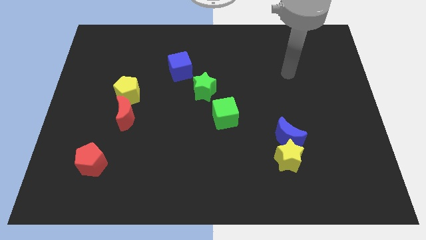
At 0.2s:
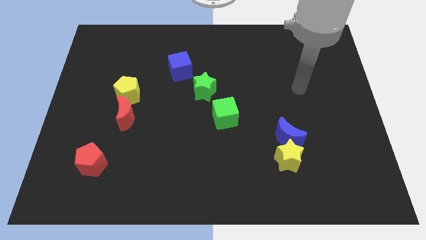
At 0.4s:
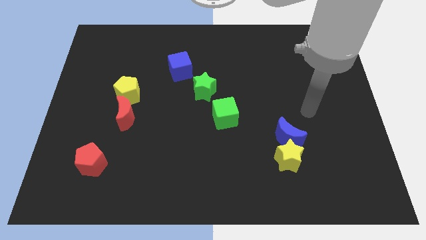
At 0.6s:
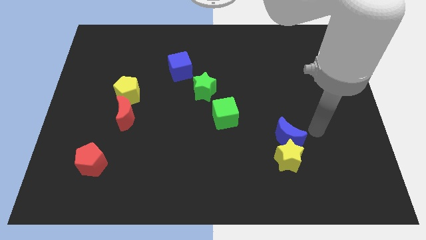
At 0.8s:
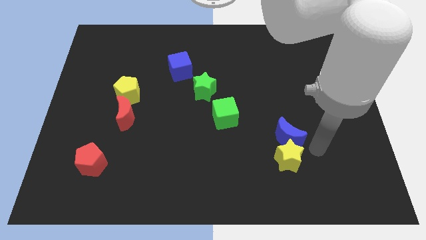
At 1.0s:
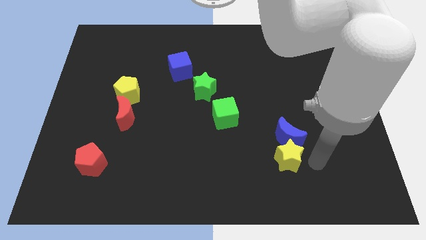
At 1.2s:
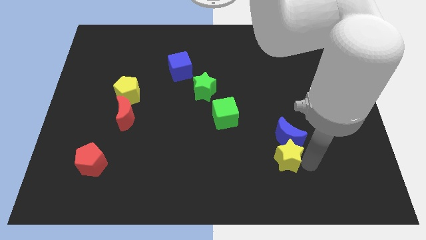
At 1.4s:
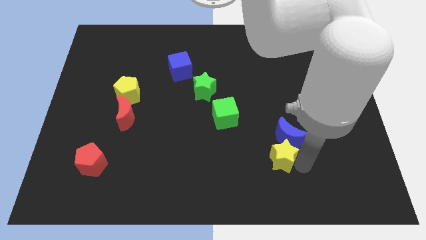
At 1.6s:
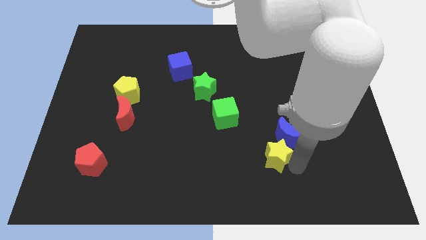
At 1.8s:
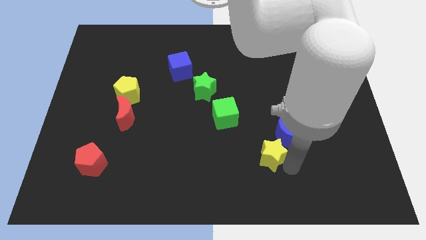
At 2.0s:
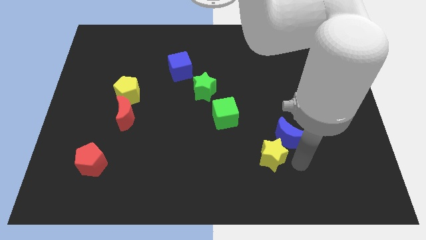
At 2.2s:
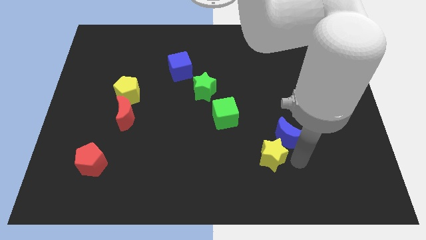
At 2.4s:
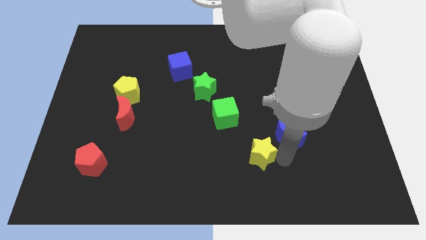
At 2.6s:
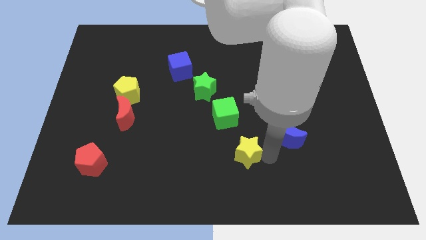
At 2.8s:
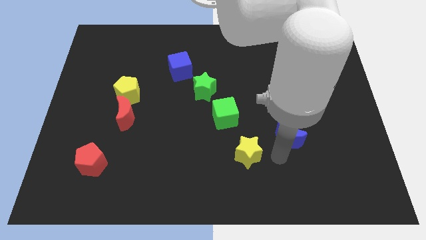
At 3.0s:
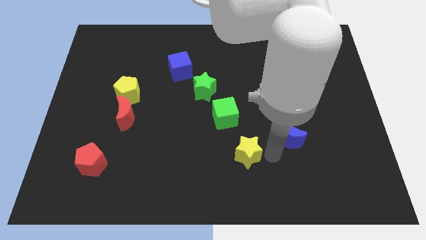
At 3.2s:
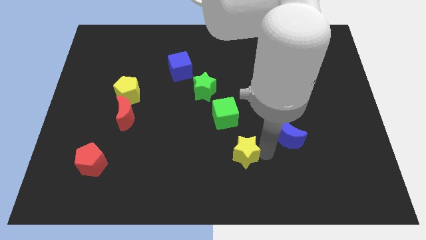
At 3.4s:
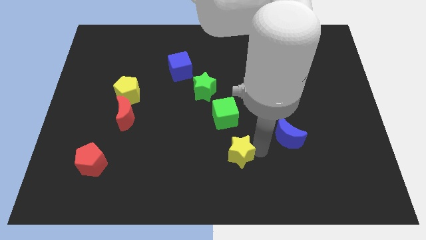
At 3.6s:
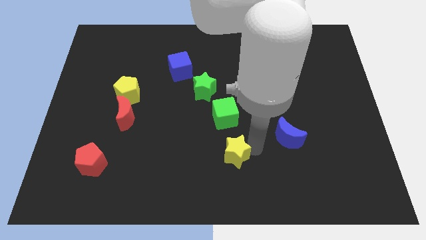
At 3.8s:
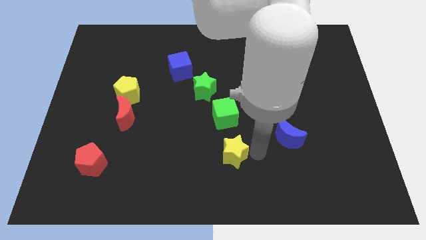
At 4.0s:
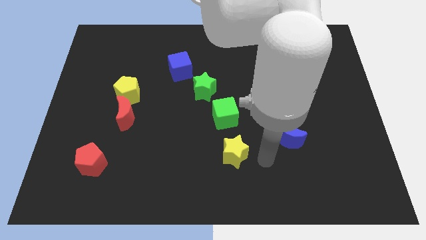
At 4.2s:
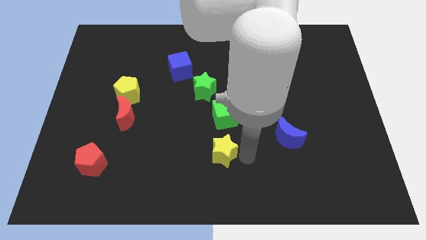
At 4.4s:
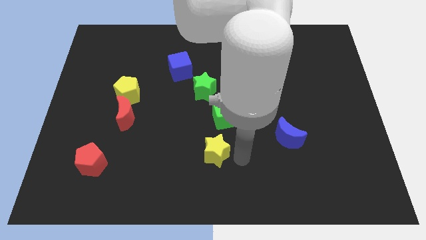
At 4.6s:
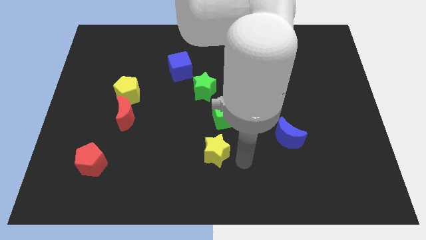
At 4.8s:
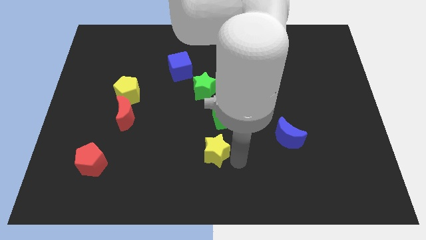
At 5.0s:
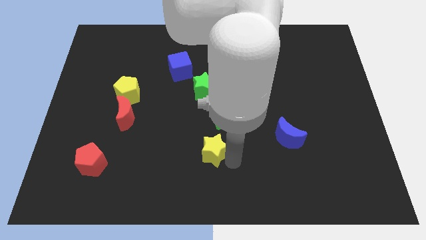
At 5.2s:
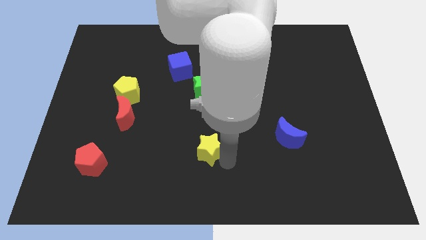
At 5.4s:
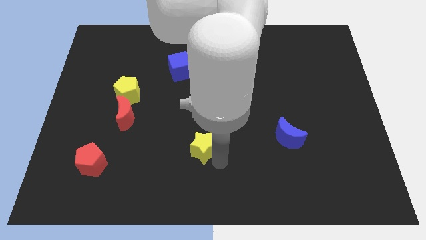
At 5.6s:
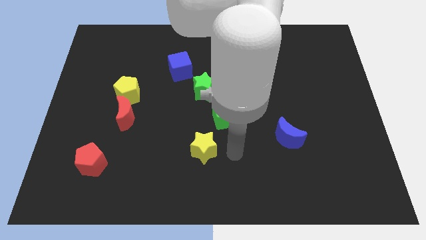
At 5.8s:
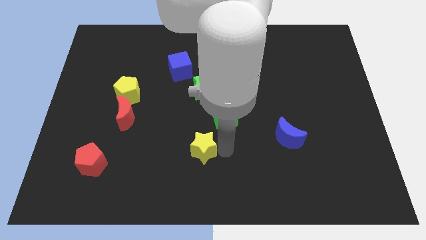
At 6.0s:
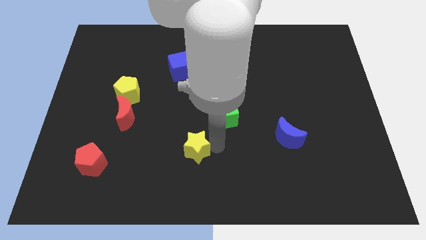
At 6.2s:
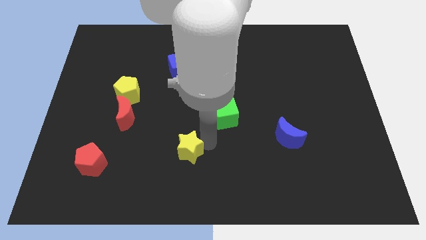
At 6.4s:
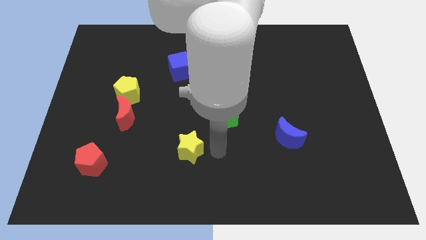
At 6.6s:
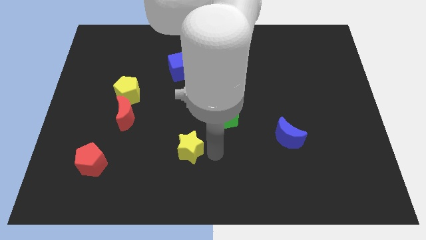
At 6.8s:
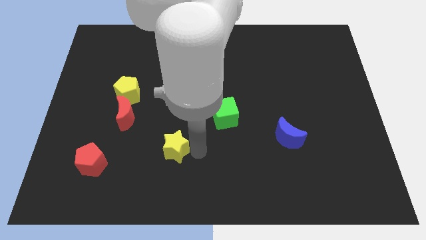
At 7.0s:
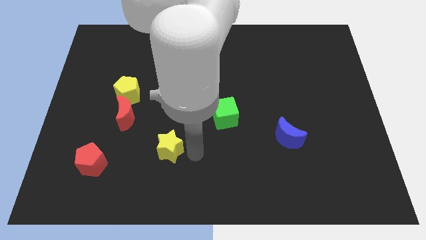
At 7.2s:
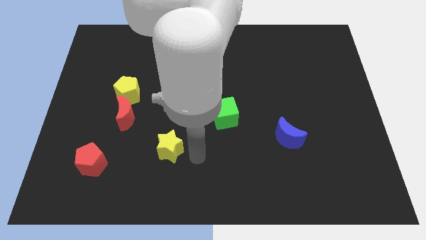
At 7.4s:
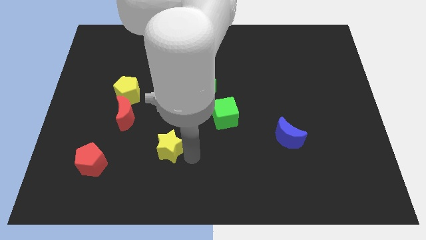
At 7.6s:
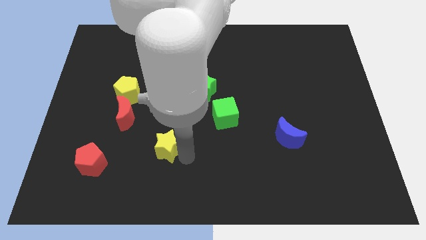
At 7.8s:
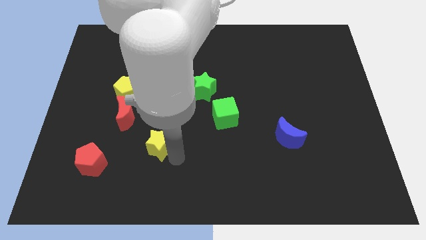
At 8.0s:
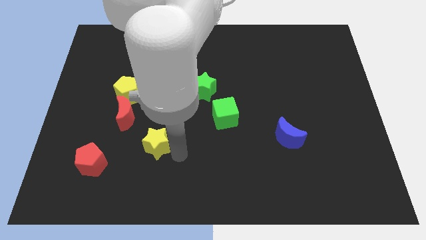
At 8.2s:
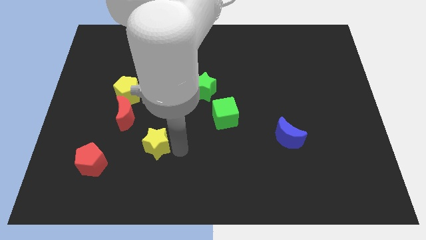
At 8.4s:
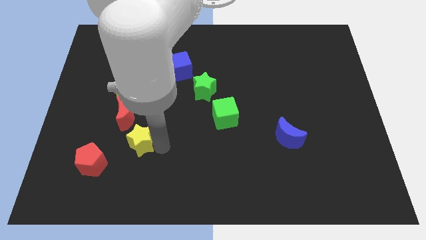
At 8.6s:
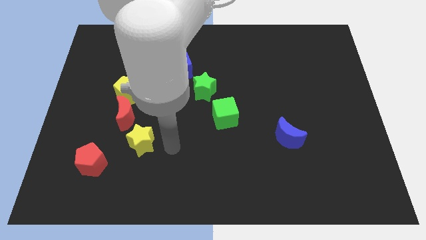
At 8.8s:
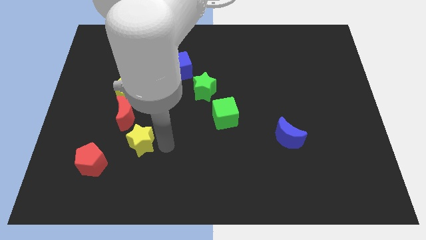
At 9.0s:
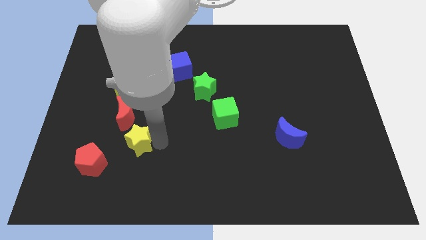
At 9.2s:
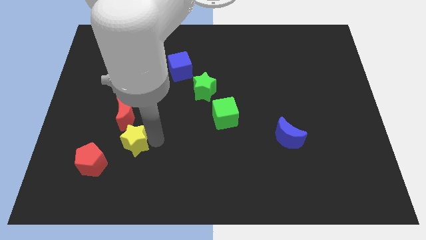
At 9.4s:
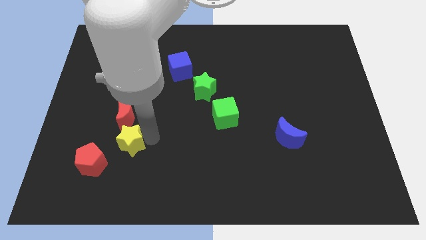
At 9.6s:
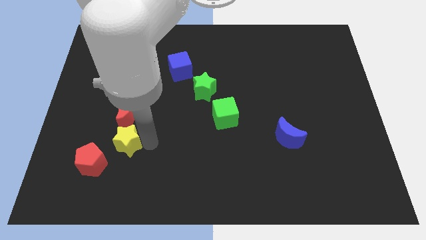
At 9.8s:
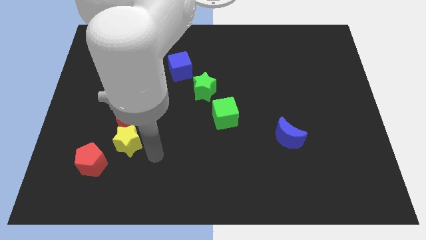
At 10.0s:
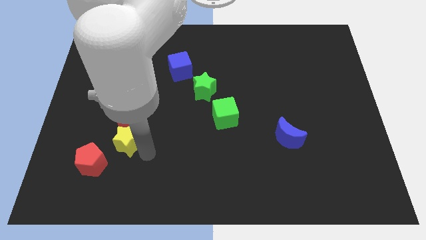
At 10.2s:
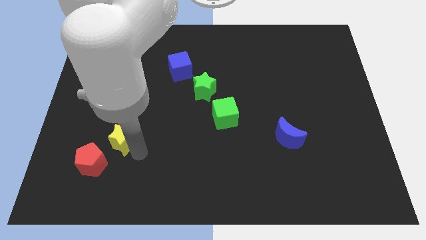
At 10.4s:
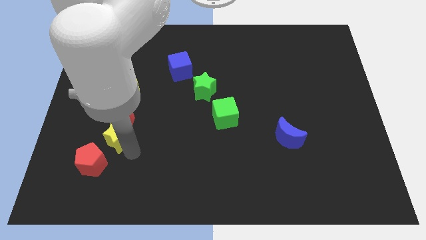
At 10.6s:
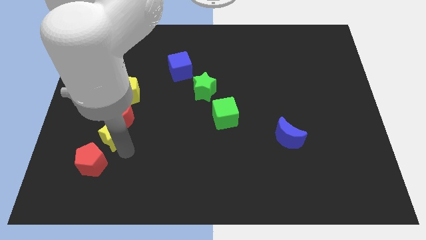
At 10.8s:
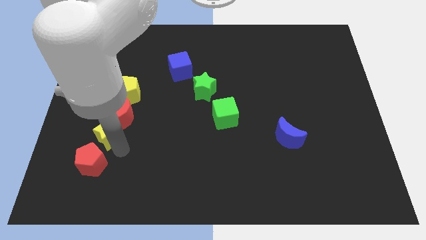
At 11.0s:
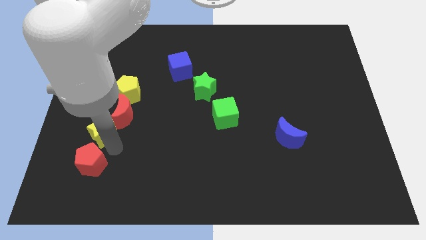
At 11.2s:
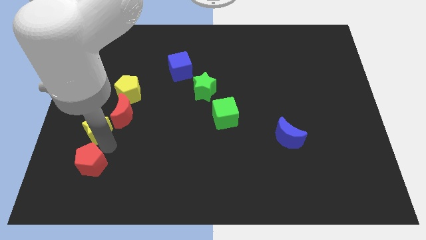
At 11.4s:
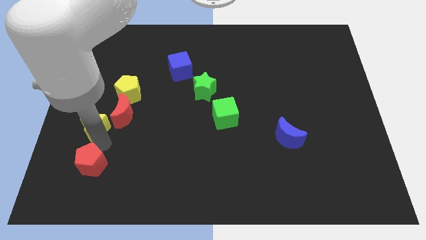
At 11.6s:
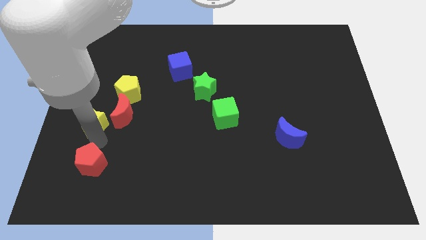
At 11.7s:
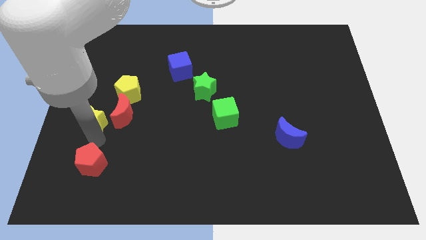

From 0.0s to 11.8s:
slide the yellow star to the center left

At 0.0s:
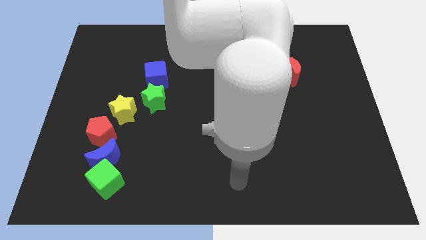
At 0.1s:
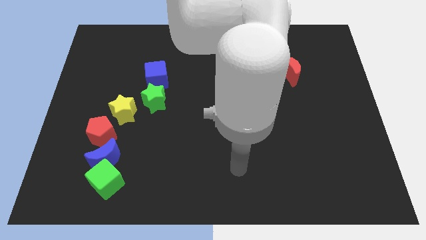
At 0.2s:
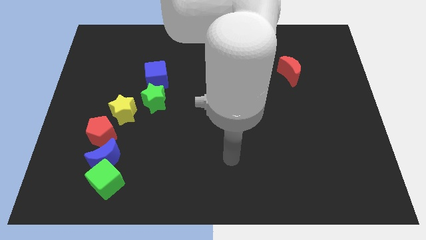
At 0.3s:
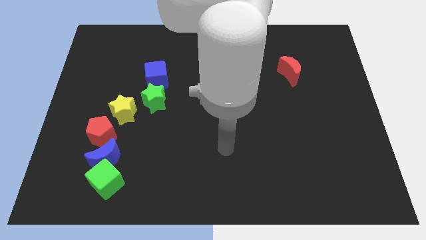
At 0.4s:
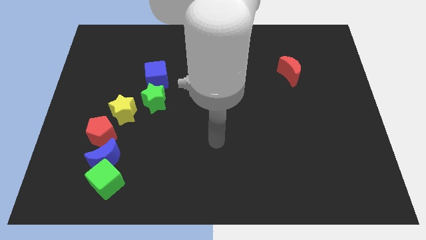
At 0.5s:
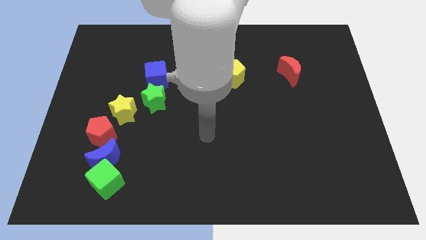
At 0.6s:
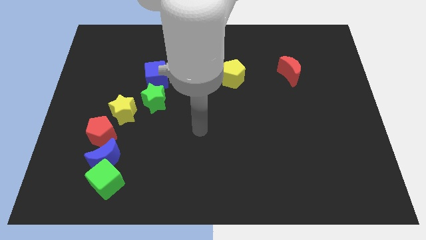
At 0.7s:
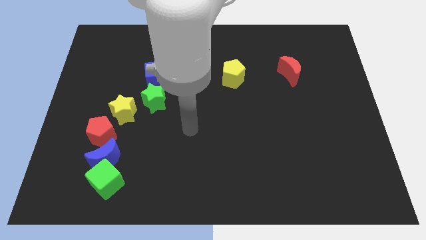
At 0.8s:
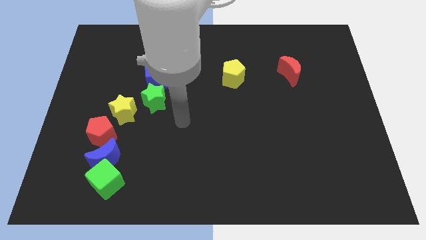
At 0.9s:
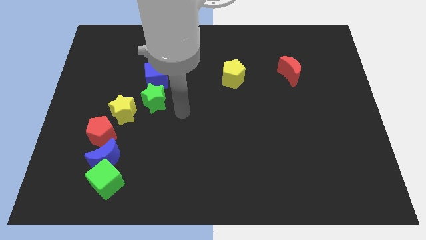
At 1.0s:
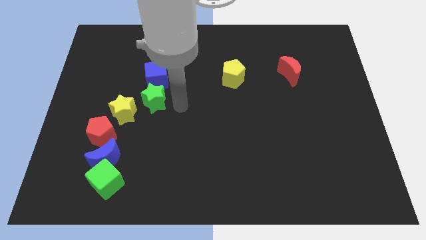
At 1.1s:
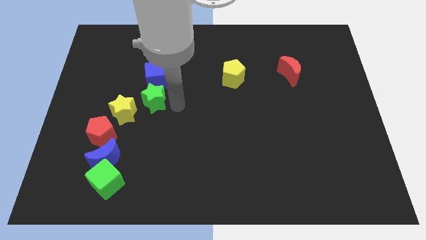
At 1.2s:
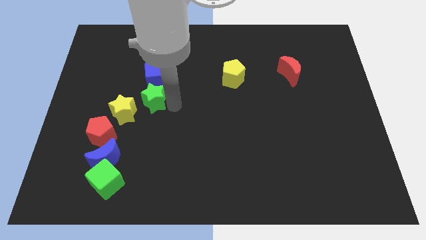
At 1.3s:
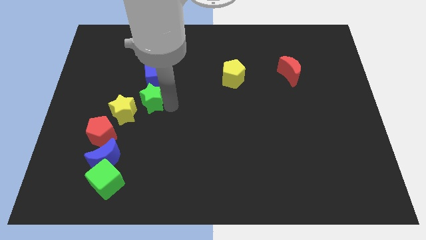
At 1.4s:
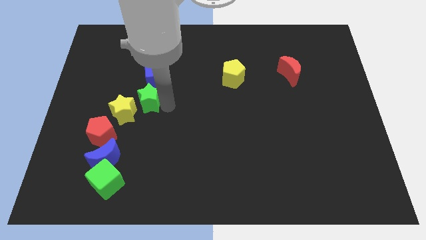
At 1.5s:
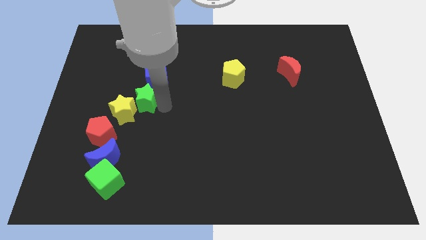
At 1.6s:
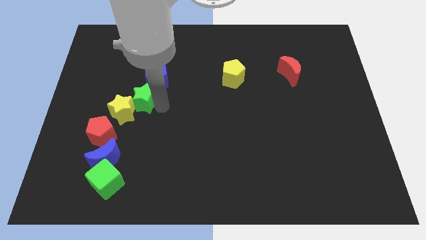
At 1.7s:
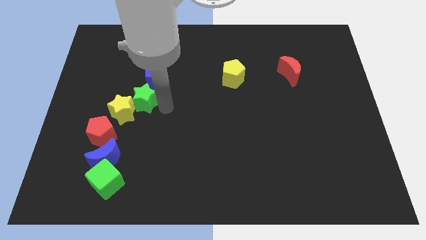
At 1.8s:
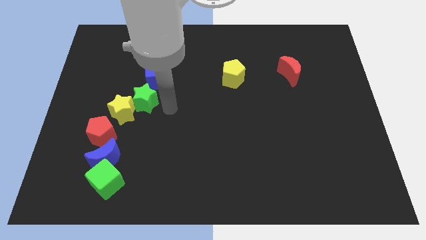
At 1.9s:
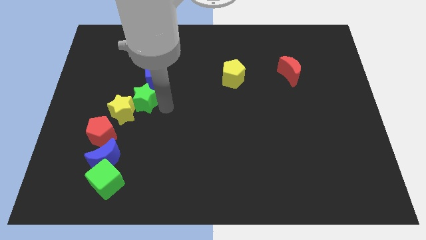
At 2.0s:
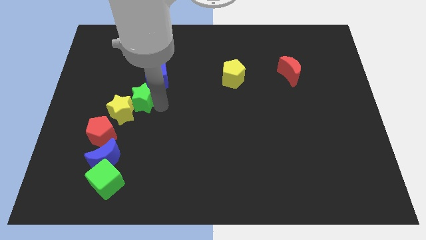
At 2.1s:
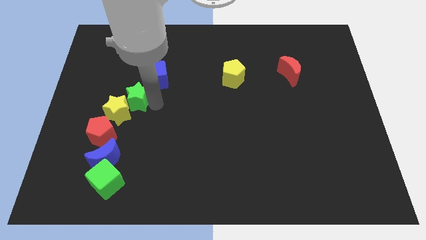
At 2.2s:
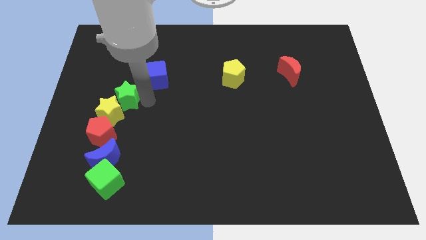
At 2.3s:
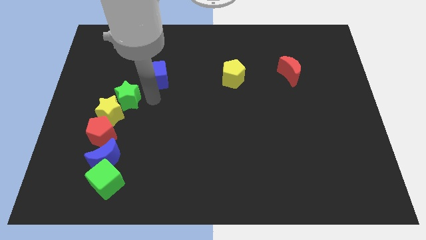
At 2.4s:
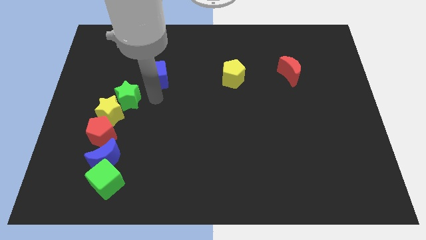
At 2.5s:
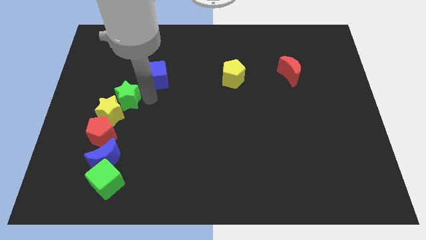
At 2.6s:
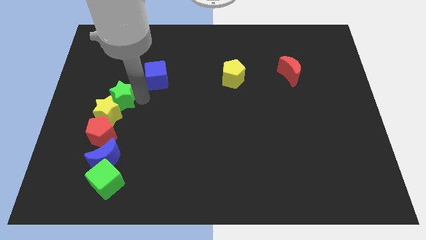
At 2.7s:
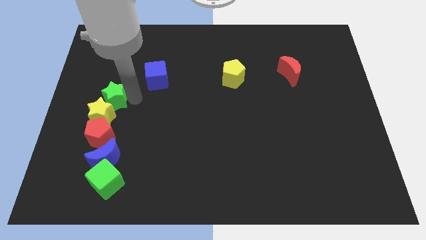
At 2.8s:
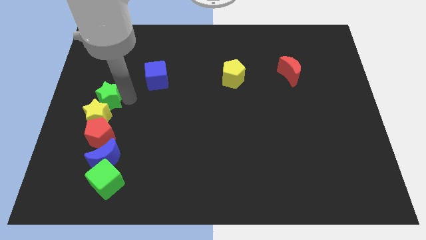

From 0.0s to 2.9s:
push the green star to the left side of the board
